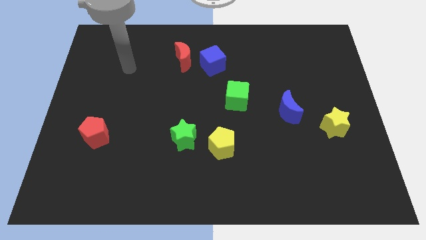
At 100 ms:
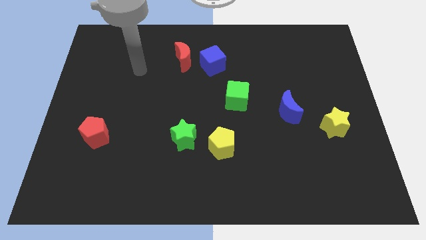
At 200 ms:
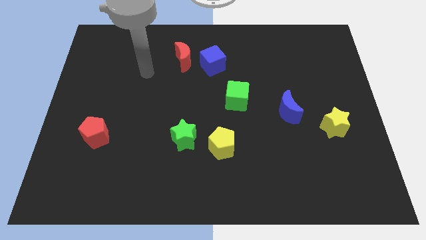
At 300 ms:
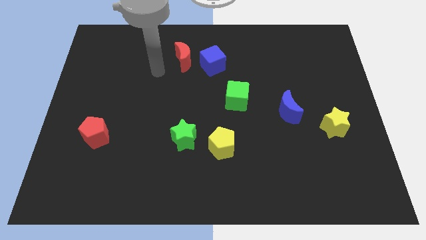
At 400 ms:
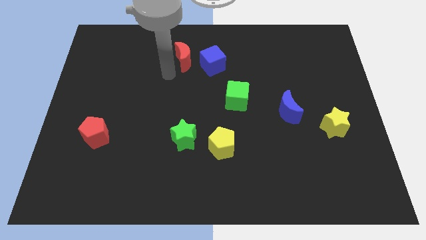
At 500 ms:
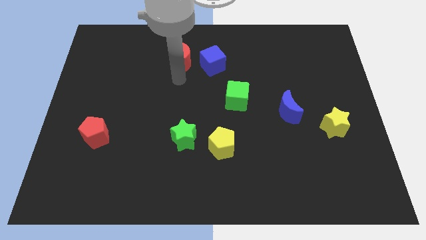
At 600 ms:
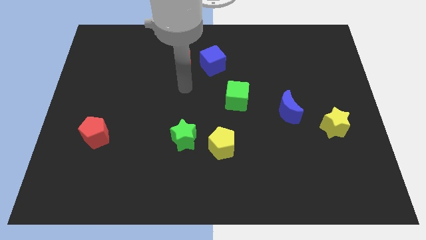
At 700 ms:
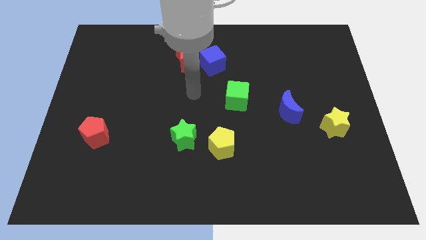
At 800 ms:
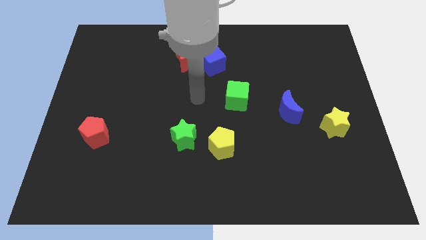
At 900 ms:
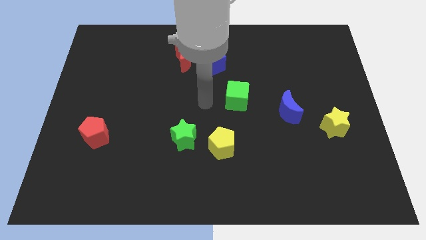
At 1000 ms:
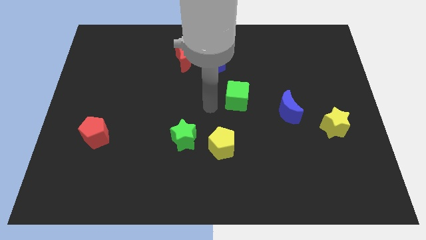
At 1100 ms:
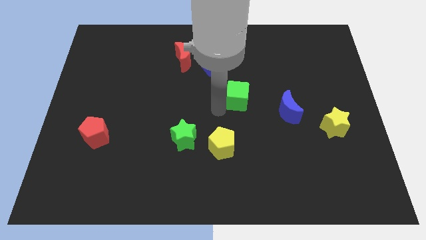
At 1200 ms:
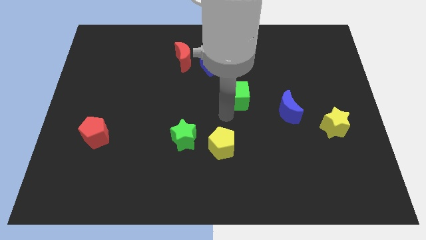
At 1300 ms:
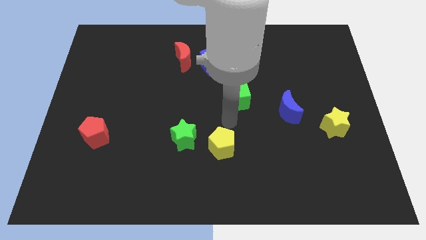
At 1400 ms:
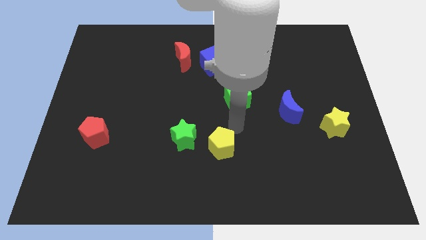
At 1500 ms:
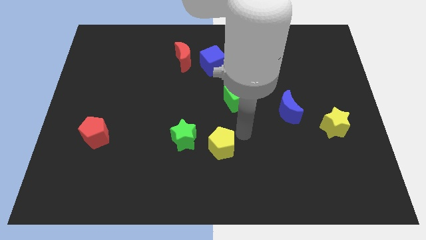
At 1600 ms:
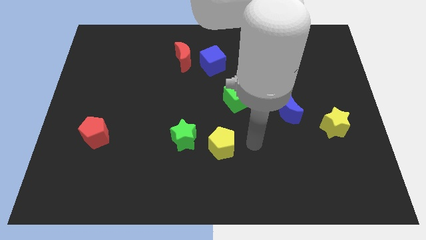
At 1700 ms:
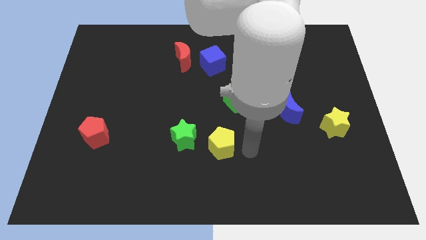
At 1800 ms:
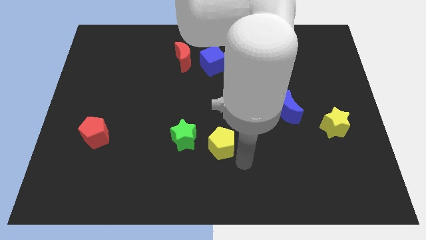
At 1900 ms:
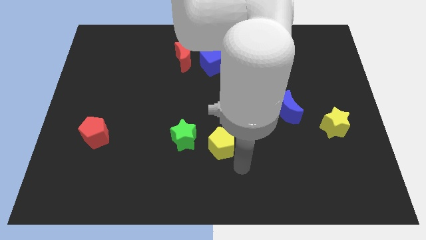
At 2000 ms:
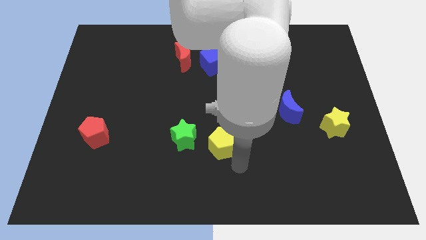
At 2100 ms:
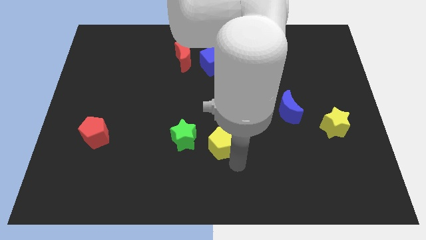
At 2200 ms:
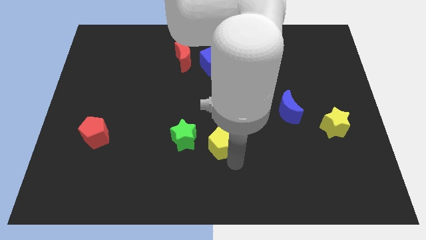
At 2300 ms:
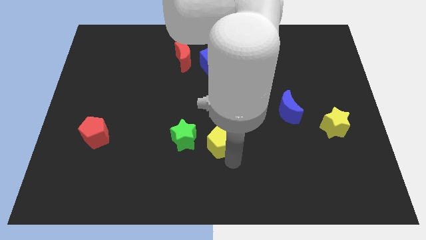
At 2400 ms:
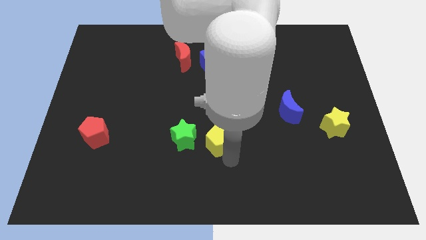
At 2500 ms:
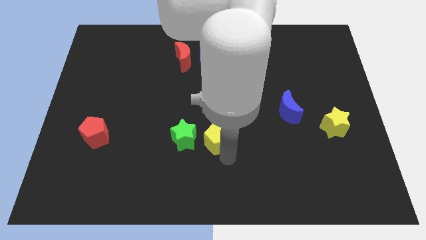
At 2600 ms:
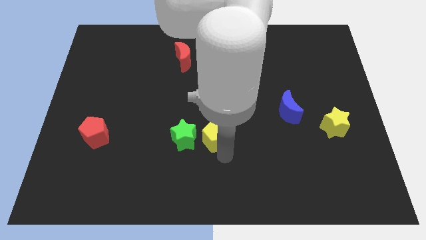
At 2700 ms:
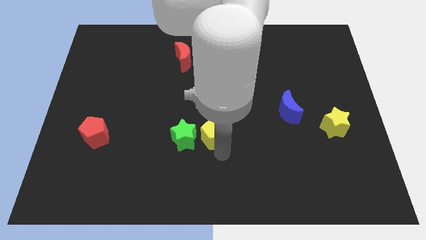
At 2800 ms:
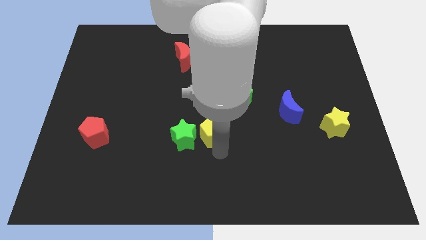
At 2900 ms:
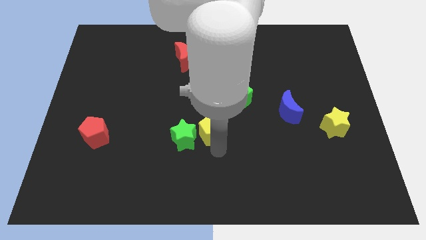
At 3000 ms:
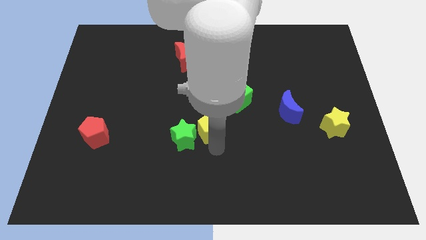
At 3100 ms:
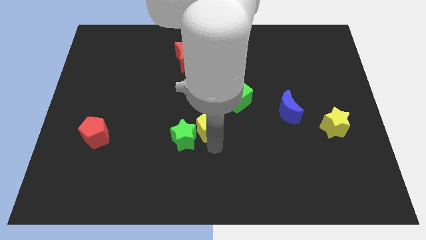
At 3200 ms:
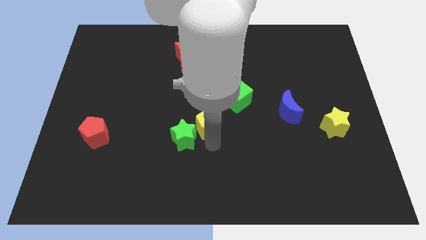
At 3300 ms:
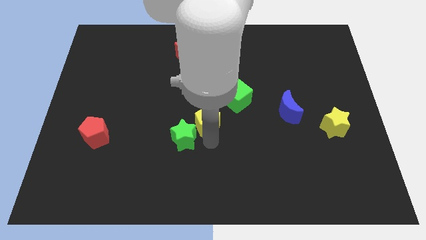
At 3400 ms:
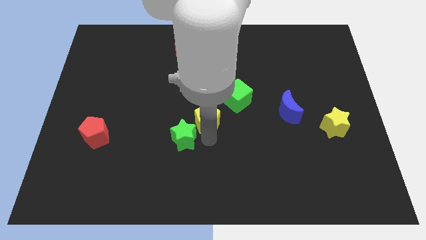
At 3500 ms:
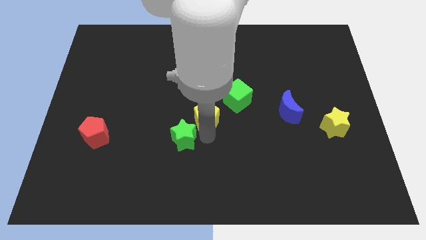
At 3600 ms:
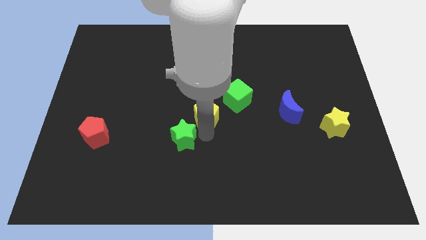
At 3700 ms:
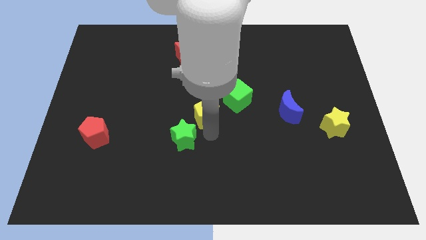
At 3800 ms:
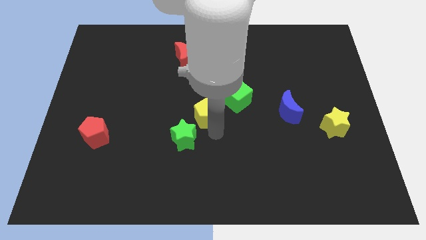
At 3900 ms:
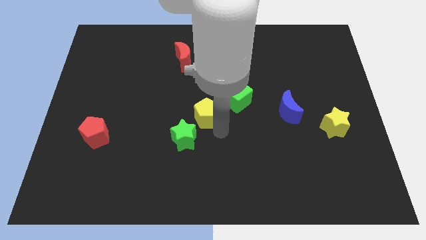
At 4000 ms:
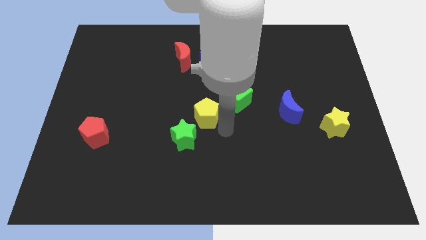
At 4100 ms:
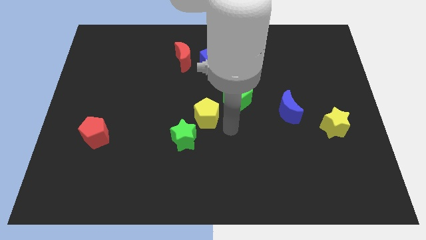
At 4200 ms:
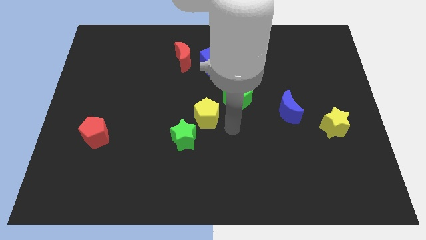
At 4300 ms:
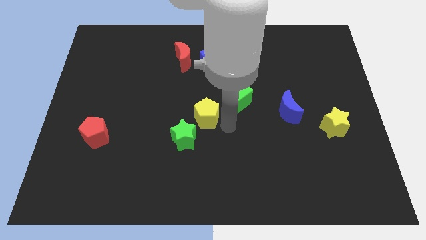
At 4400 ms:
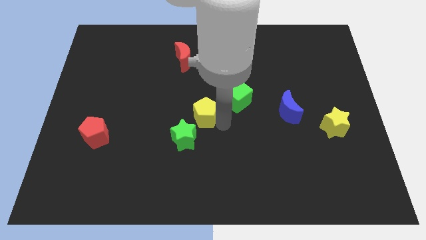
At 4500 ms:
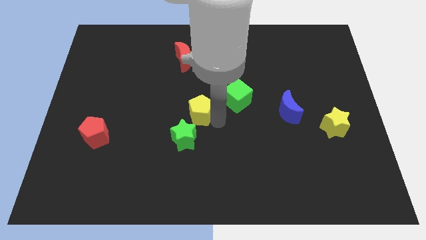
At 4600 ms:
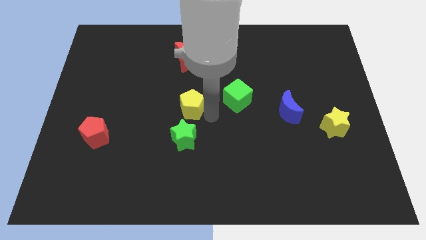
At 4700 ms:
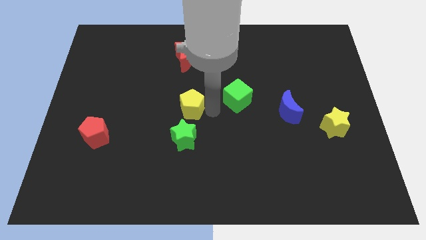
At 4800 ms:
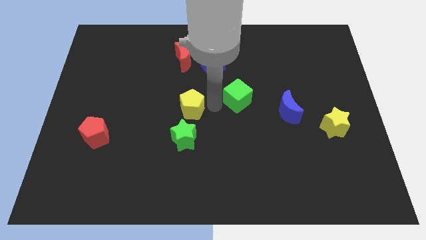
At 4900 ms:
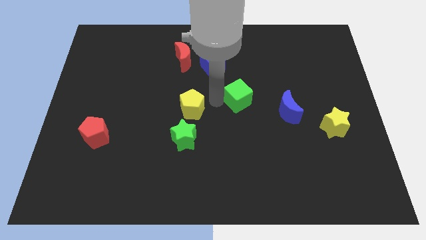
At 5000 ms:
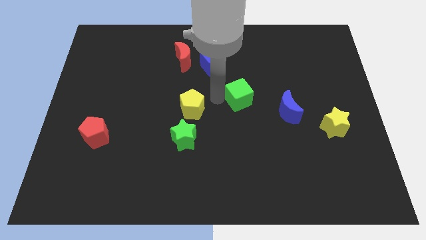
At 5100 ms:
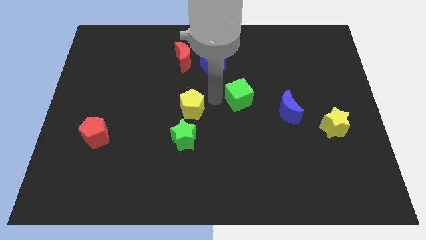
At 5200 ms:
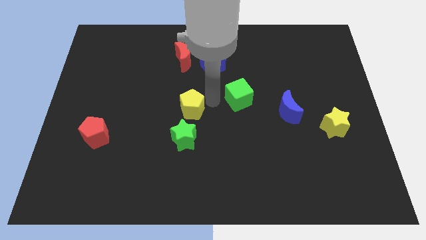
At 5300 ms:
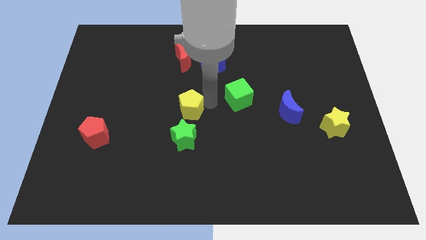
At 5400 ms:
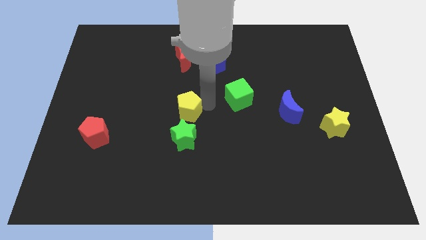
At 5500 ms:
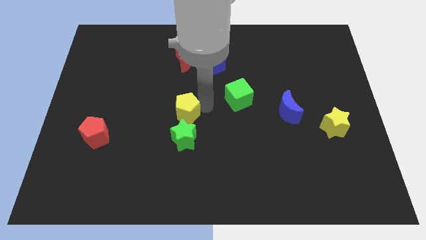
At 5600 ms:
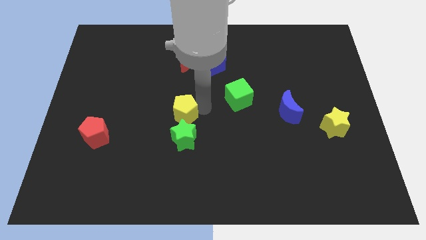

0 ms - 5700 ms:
move the yellow pentagon diagonally up and to the left of the green star

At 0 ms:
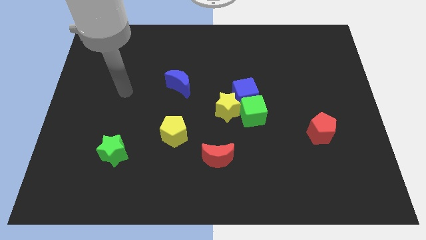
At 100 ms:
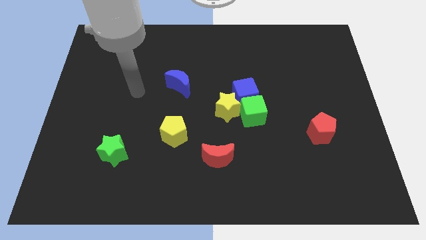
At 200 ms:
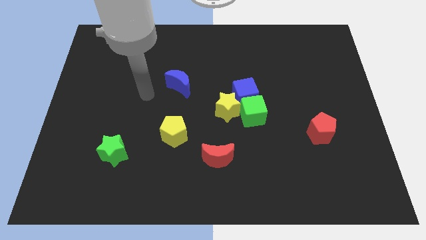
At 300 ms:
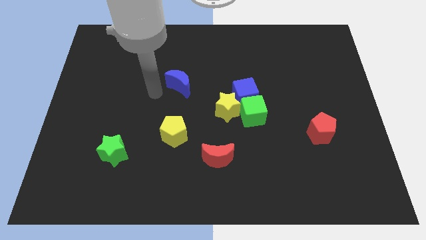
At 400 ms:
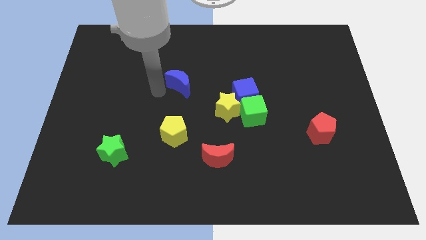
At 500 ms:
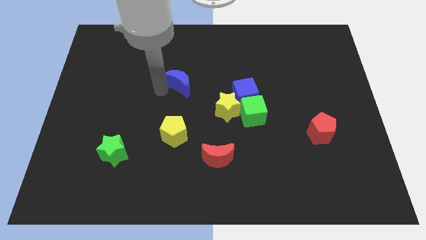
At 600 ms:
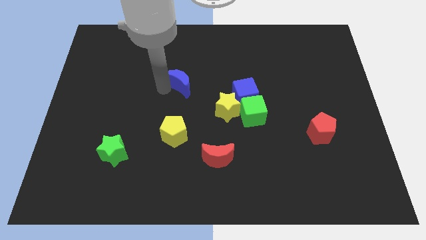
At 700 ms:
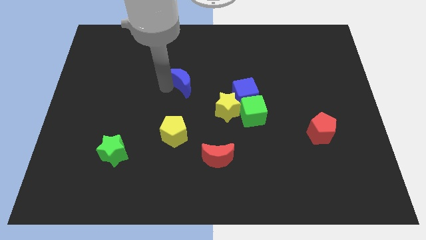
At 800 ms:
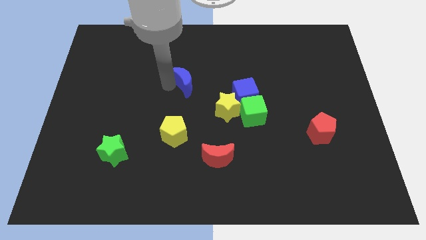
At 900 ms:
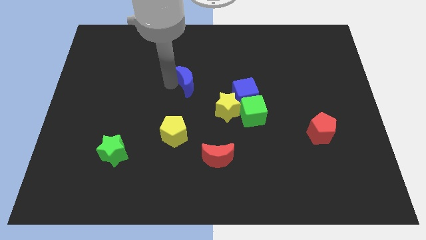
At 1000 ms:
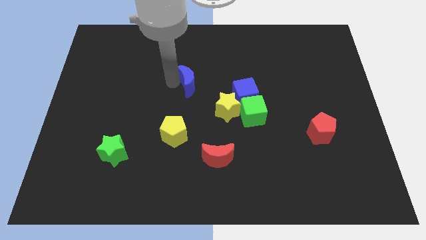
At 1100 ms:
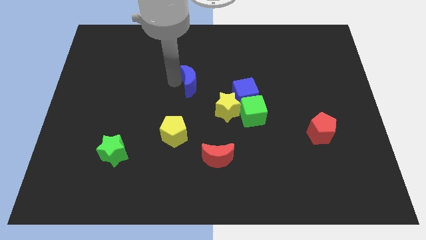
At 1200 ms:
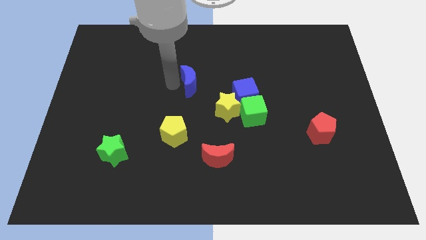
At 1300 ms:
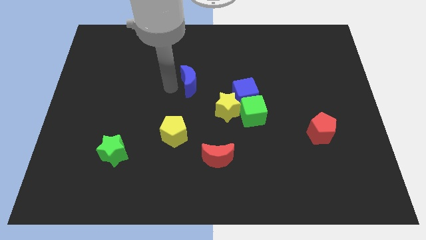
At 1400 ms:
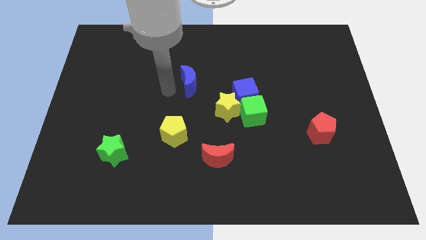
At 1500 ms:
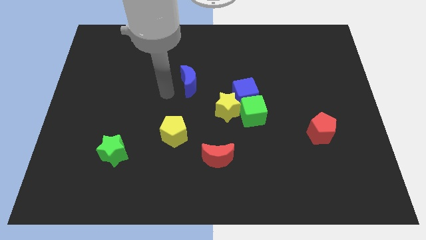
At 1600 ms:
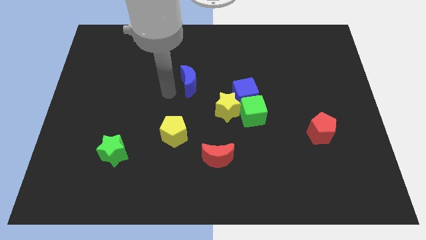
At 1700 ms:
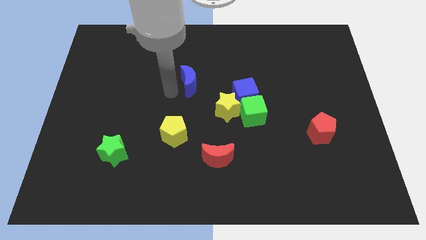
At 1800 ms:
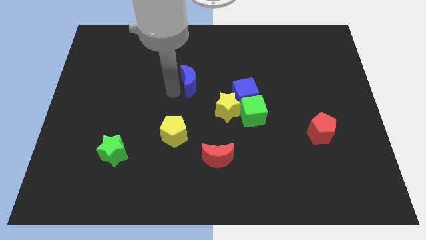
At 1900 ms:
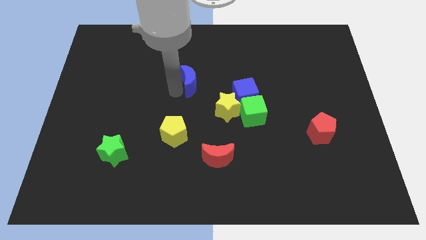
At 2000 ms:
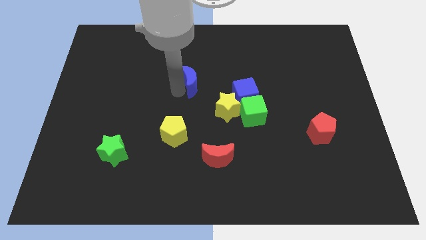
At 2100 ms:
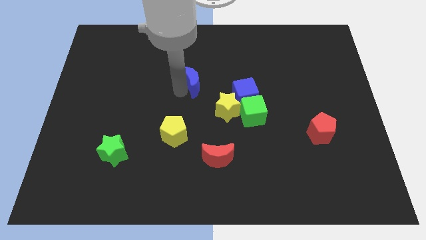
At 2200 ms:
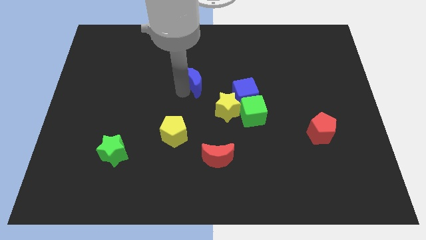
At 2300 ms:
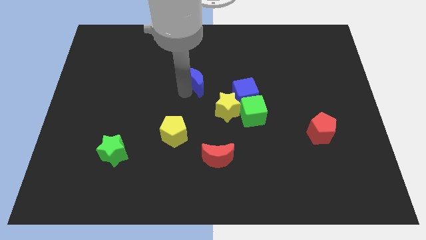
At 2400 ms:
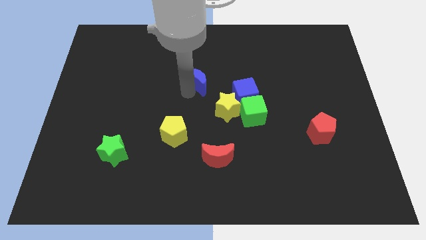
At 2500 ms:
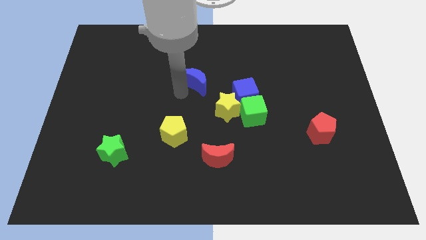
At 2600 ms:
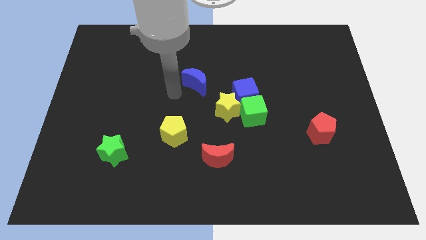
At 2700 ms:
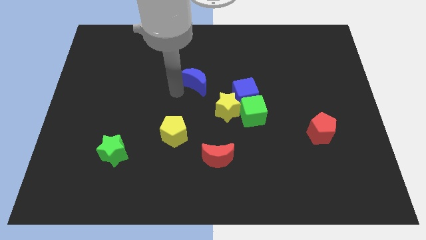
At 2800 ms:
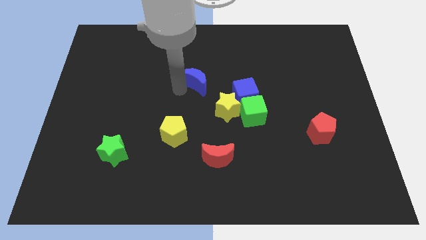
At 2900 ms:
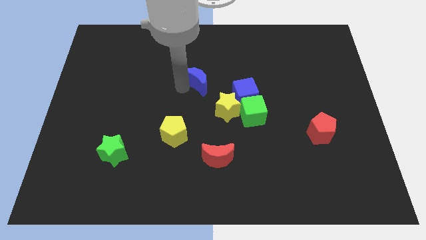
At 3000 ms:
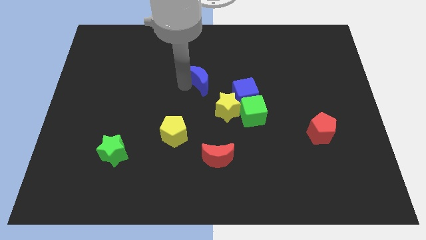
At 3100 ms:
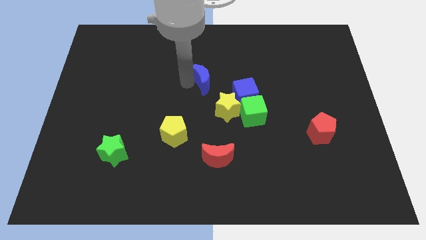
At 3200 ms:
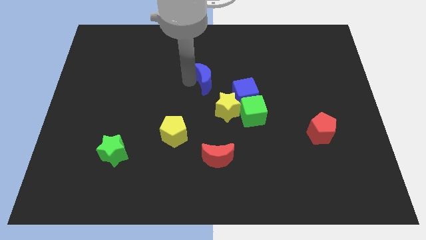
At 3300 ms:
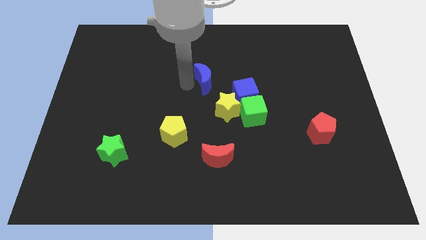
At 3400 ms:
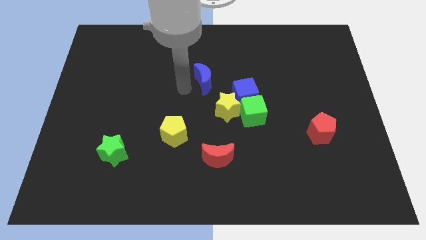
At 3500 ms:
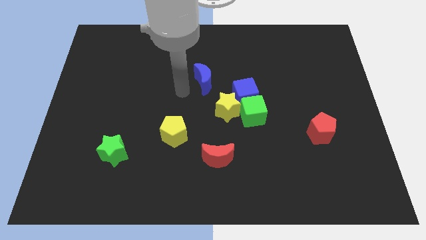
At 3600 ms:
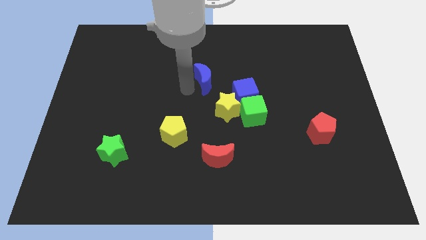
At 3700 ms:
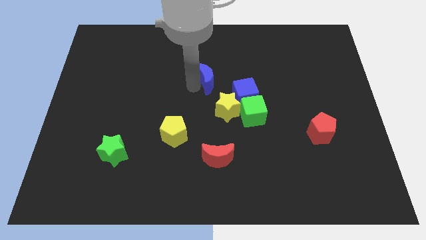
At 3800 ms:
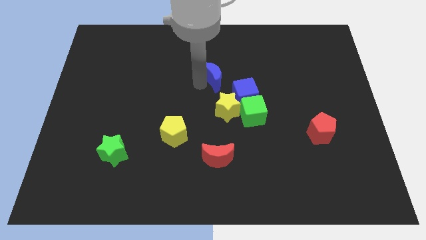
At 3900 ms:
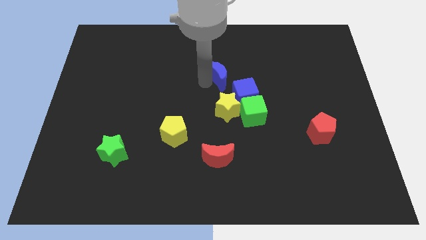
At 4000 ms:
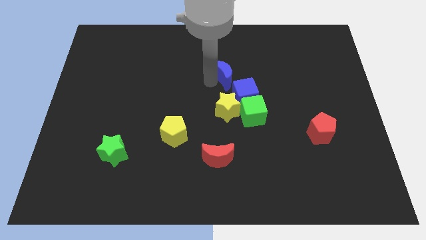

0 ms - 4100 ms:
put the blue moon above the blue cube
